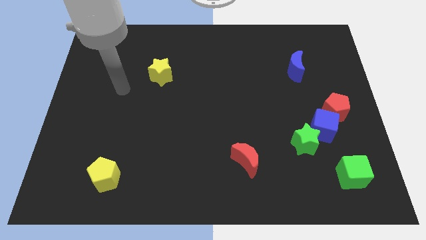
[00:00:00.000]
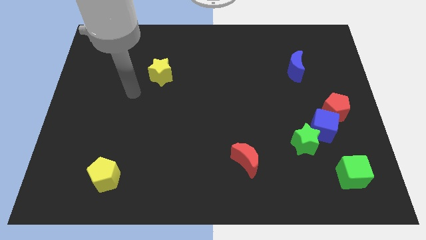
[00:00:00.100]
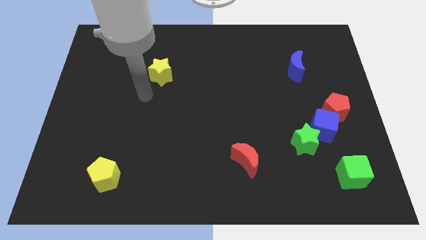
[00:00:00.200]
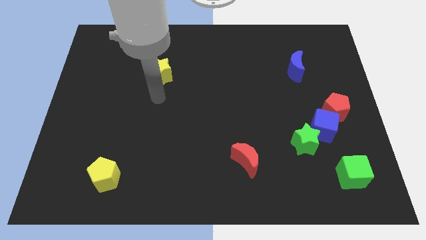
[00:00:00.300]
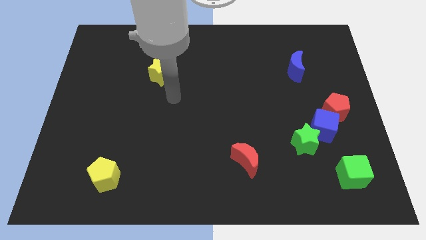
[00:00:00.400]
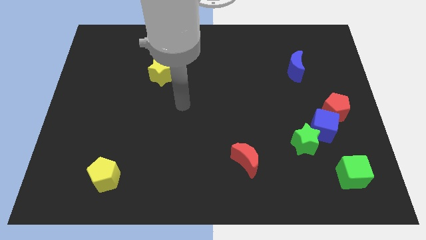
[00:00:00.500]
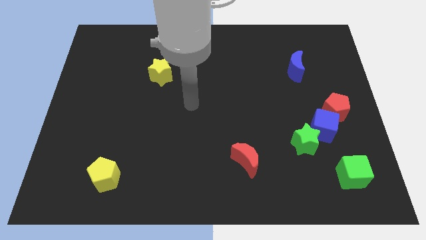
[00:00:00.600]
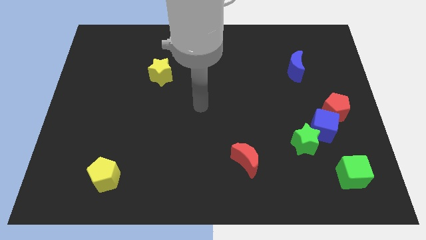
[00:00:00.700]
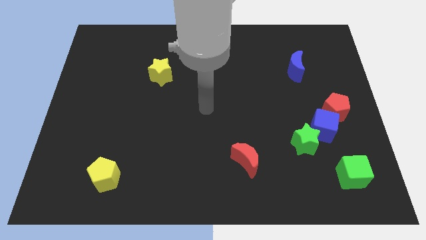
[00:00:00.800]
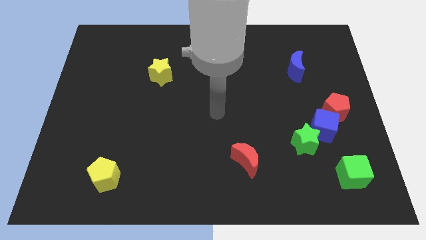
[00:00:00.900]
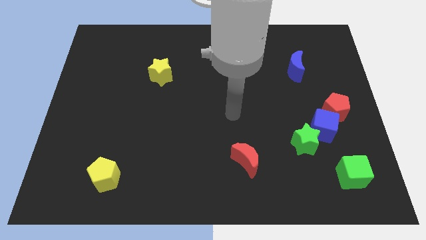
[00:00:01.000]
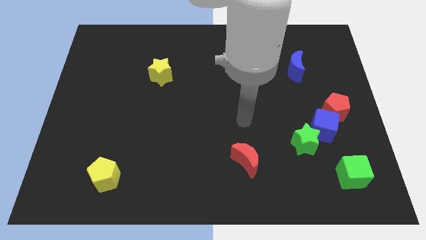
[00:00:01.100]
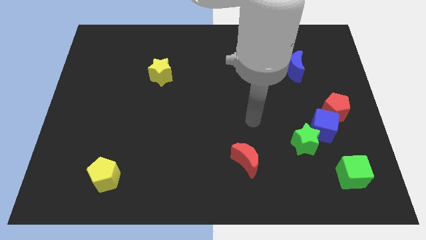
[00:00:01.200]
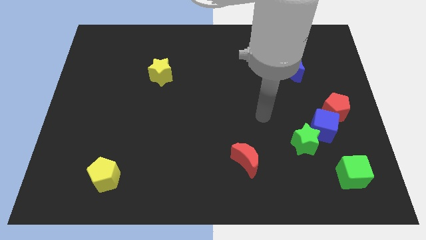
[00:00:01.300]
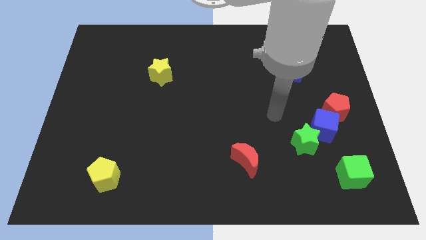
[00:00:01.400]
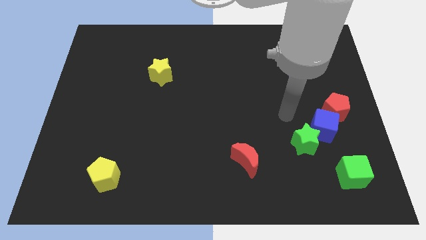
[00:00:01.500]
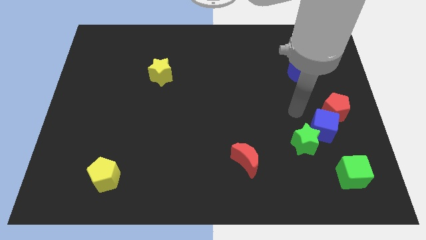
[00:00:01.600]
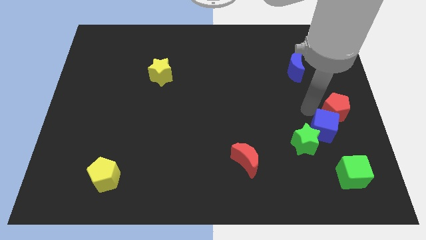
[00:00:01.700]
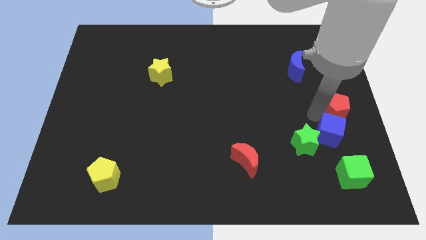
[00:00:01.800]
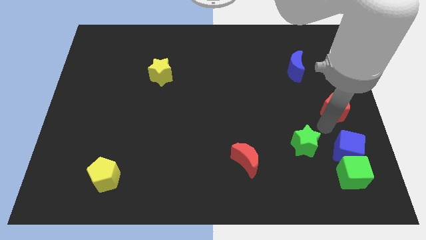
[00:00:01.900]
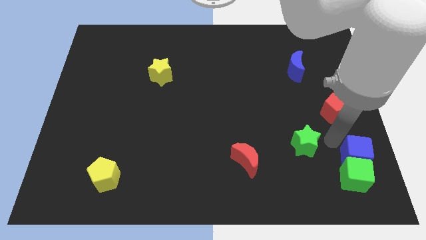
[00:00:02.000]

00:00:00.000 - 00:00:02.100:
pull the green star apart from the blue cube

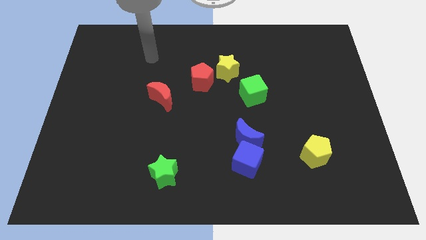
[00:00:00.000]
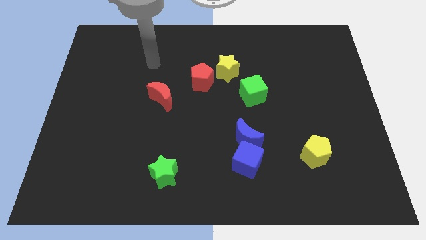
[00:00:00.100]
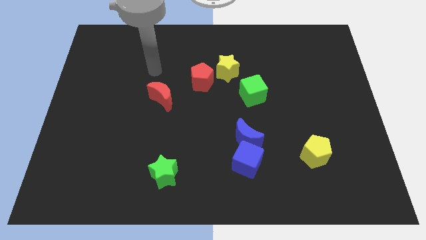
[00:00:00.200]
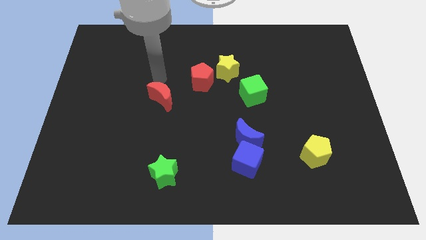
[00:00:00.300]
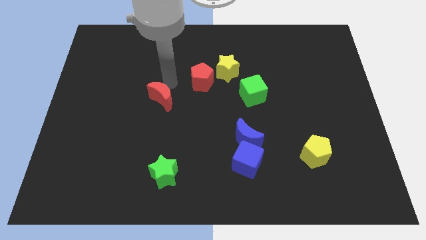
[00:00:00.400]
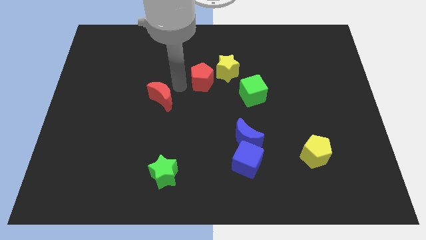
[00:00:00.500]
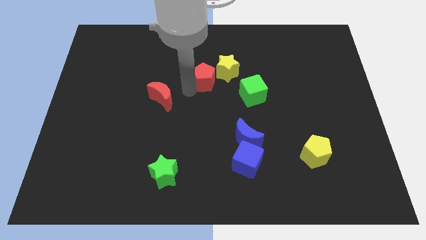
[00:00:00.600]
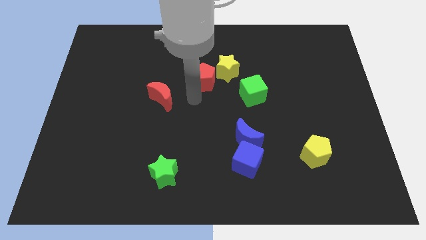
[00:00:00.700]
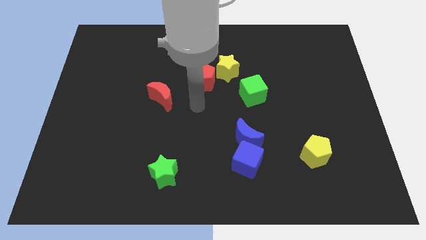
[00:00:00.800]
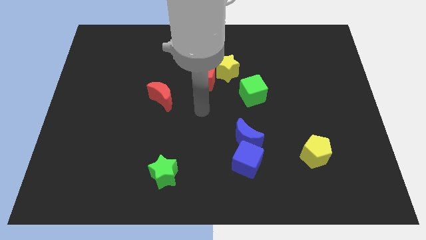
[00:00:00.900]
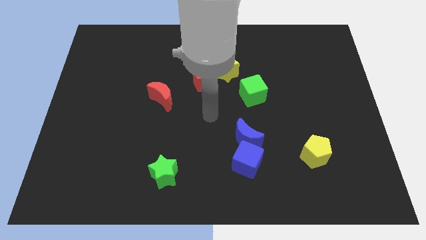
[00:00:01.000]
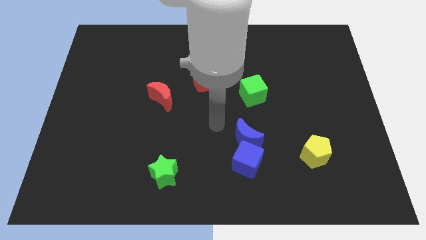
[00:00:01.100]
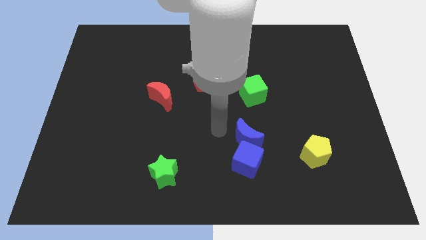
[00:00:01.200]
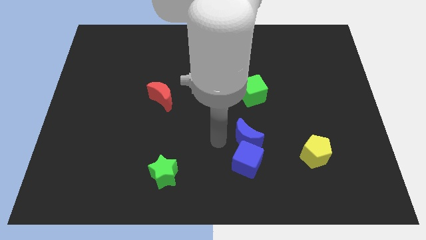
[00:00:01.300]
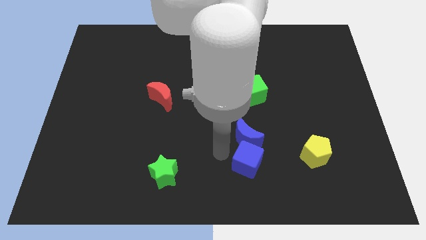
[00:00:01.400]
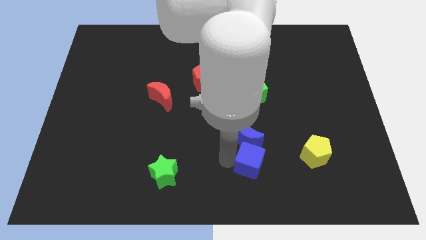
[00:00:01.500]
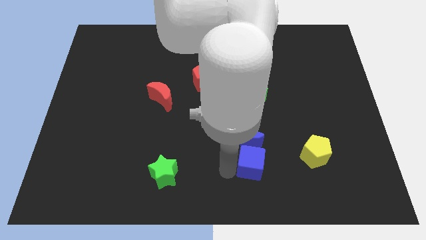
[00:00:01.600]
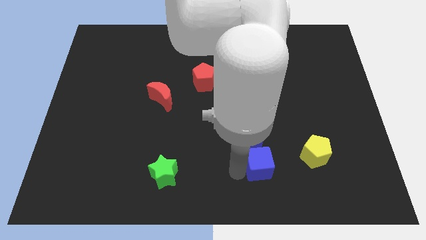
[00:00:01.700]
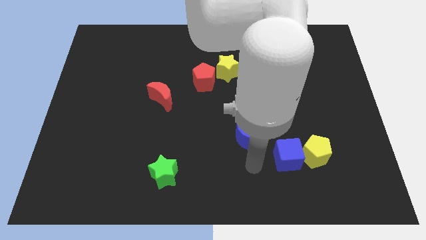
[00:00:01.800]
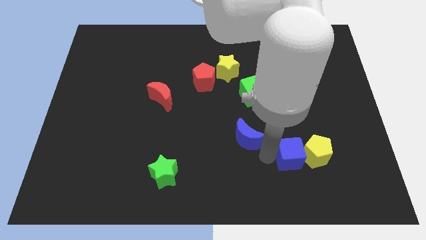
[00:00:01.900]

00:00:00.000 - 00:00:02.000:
pull the blue moon apart from the blue cube

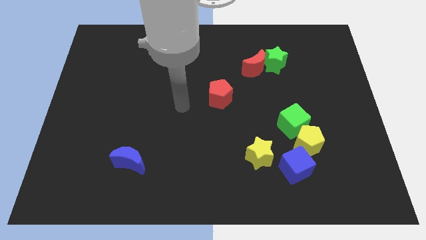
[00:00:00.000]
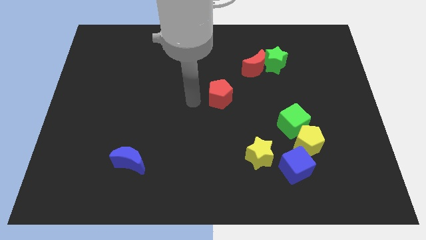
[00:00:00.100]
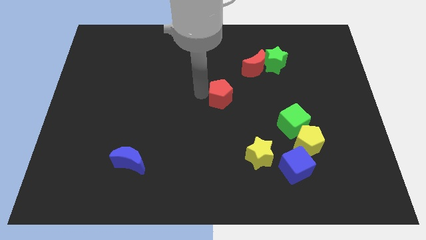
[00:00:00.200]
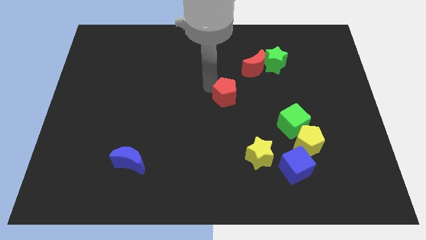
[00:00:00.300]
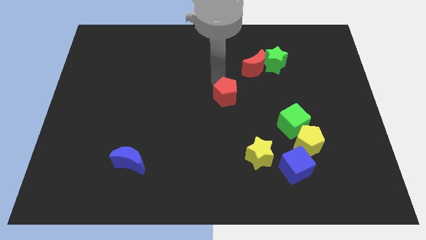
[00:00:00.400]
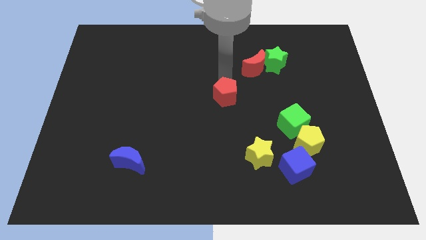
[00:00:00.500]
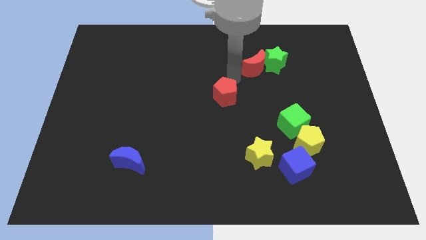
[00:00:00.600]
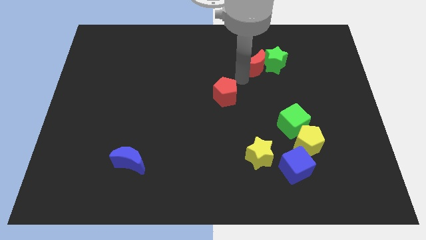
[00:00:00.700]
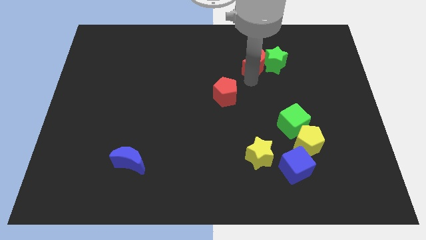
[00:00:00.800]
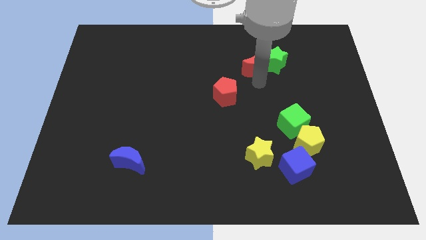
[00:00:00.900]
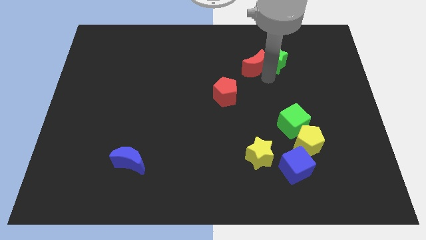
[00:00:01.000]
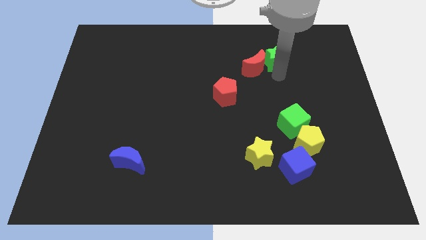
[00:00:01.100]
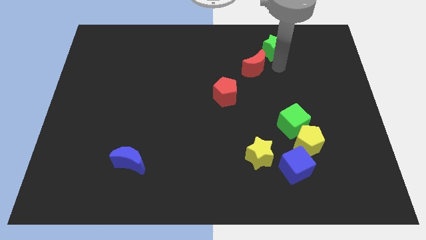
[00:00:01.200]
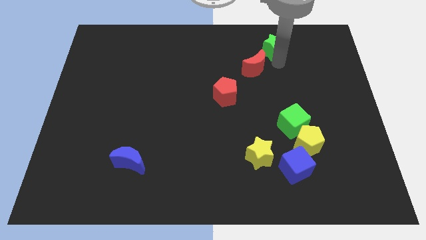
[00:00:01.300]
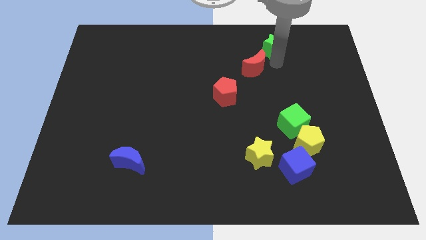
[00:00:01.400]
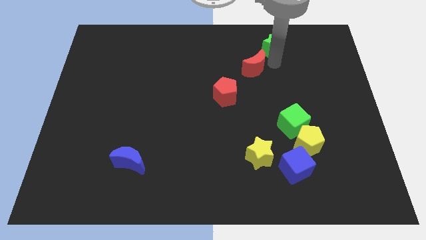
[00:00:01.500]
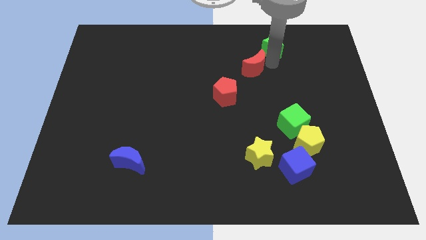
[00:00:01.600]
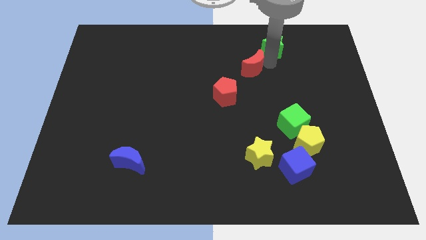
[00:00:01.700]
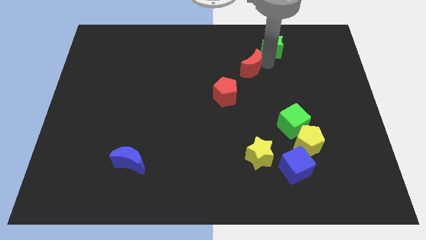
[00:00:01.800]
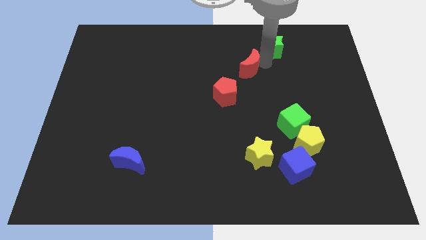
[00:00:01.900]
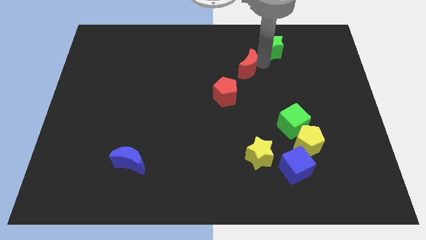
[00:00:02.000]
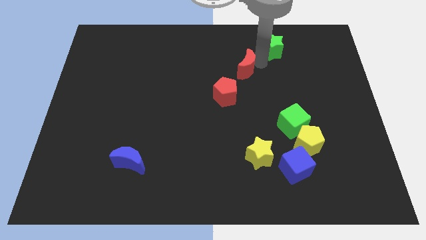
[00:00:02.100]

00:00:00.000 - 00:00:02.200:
separate the red moon from the green star

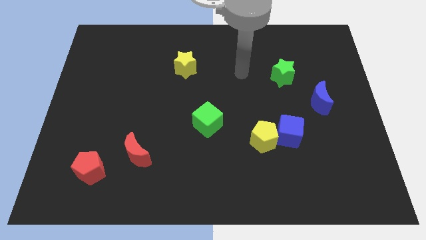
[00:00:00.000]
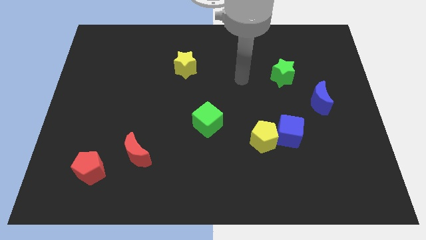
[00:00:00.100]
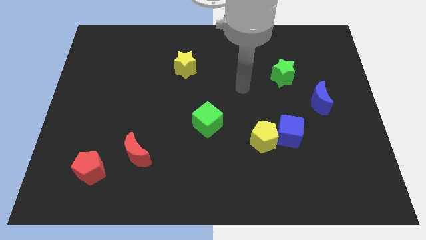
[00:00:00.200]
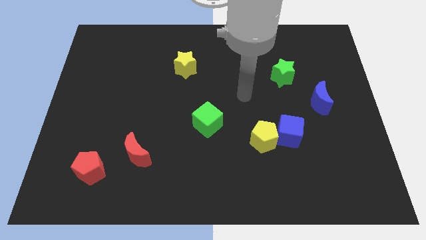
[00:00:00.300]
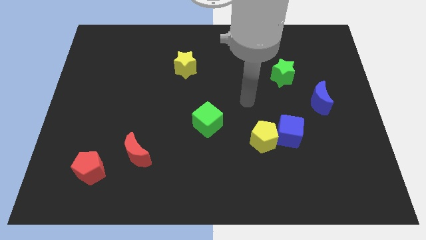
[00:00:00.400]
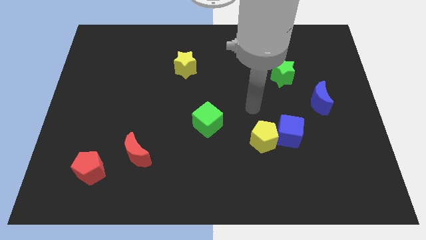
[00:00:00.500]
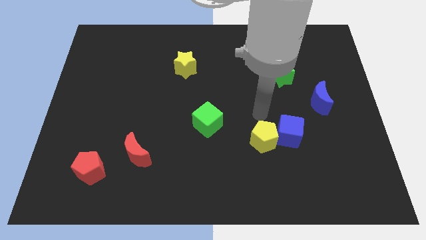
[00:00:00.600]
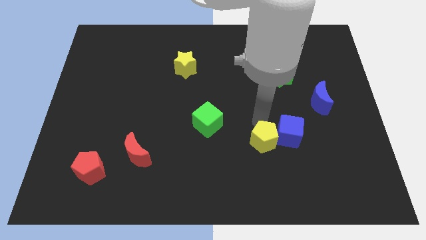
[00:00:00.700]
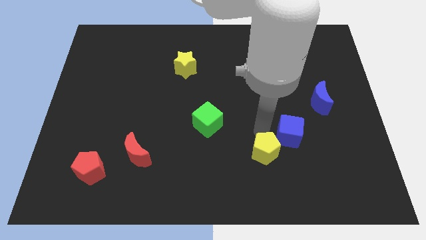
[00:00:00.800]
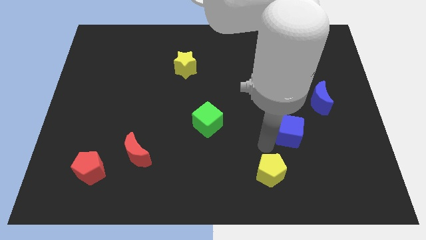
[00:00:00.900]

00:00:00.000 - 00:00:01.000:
pull the blue cube apart from the yellow pentagon

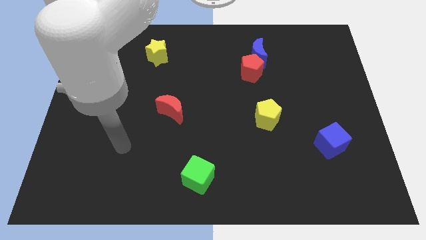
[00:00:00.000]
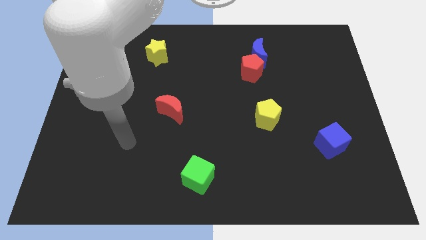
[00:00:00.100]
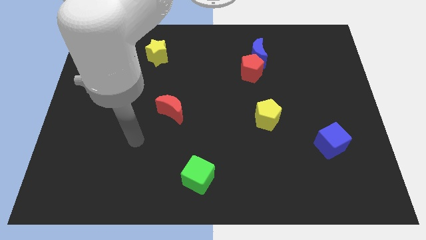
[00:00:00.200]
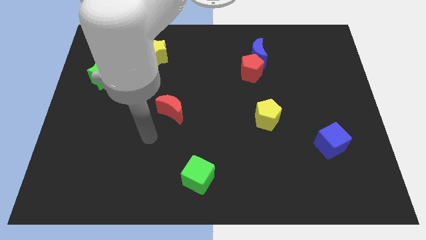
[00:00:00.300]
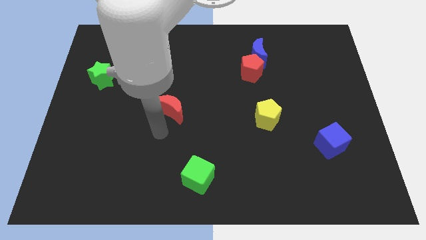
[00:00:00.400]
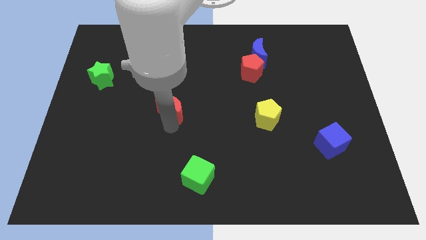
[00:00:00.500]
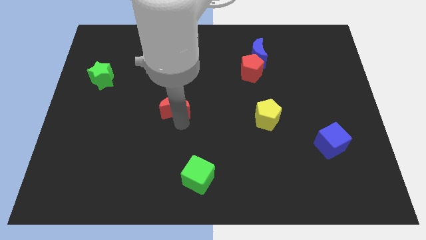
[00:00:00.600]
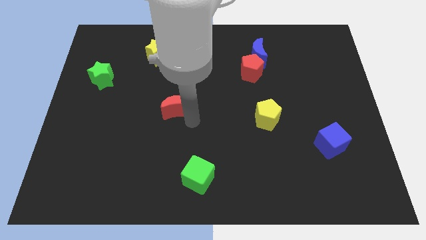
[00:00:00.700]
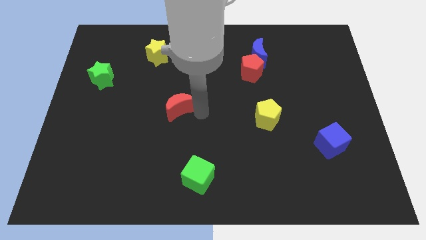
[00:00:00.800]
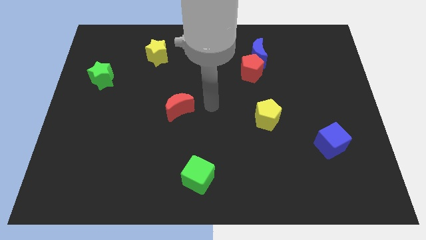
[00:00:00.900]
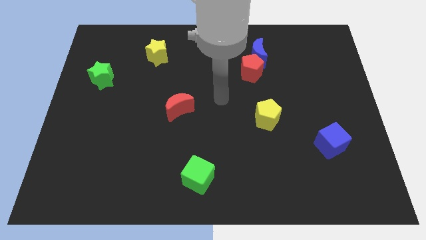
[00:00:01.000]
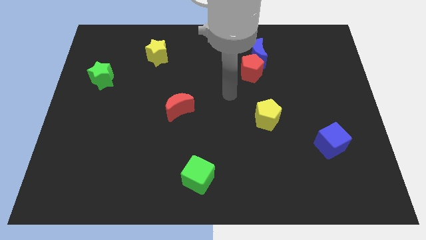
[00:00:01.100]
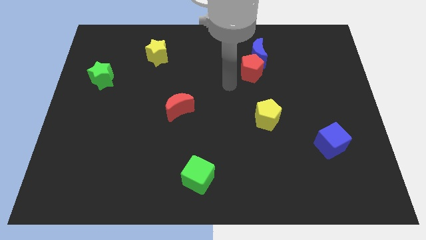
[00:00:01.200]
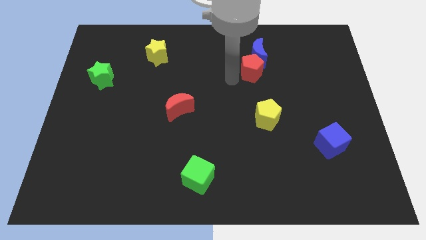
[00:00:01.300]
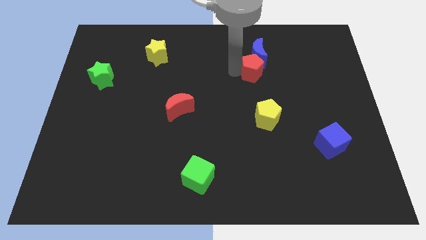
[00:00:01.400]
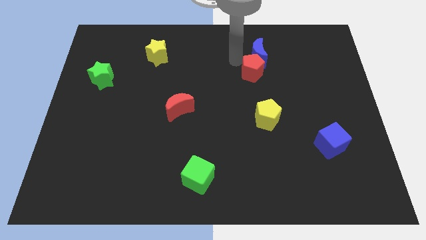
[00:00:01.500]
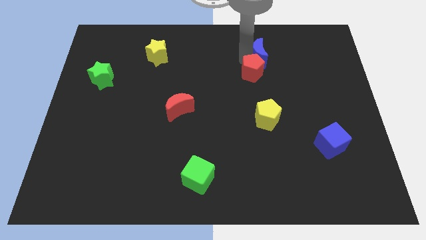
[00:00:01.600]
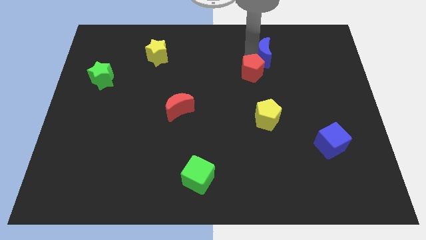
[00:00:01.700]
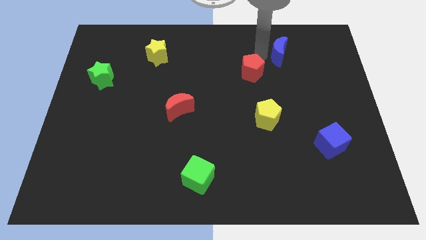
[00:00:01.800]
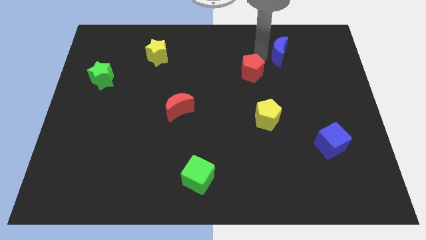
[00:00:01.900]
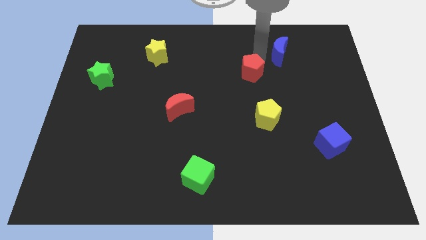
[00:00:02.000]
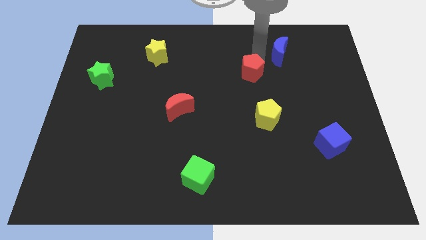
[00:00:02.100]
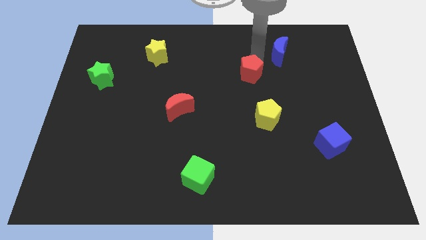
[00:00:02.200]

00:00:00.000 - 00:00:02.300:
move the red pentagon away from the blue moon
